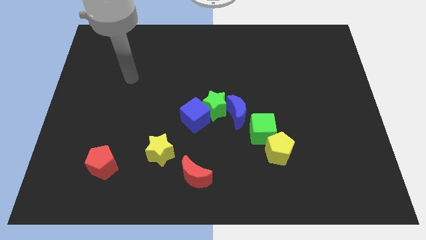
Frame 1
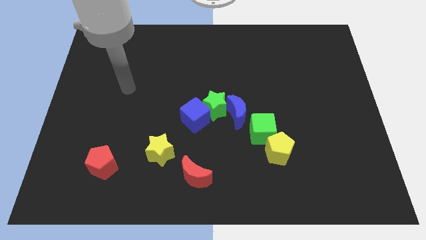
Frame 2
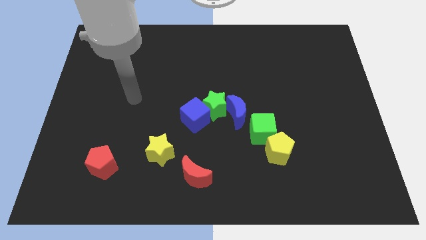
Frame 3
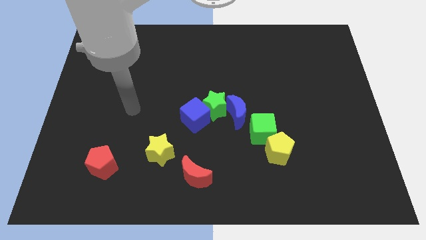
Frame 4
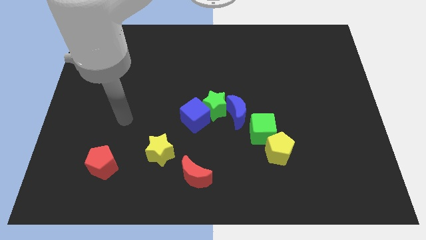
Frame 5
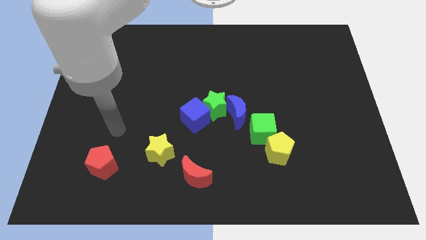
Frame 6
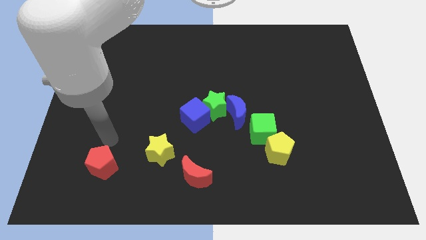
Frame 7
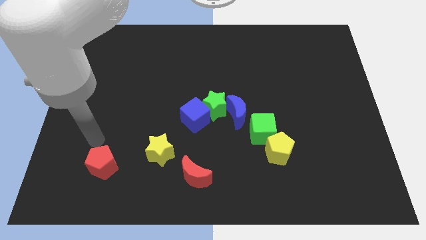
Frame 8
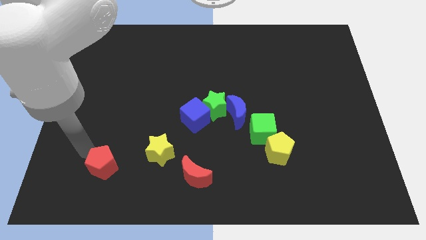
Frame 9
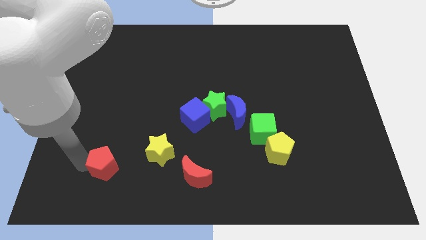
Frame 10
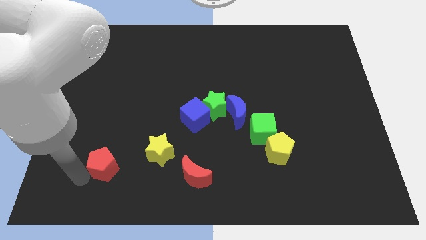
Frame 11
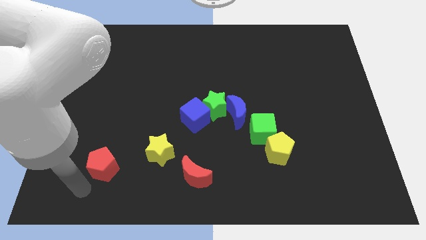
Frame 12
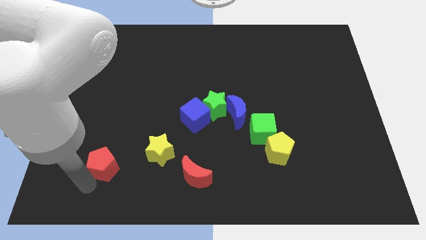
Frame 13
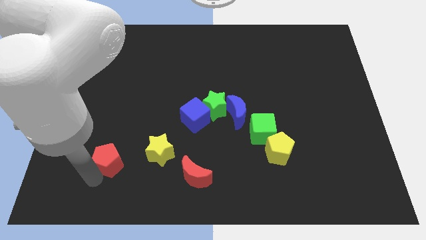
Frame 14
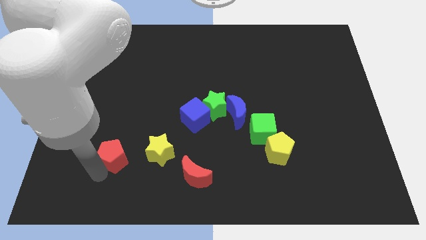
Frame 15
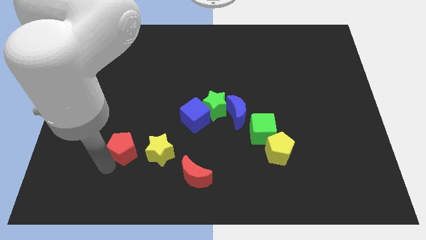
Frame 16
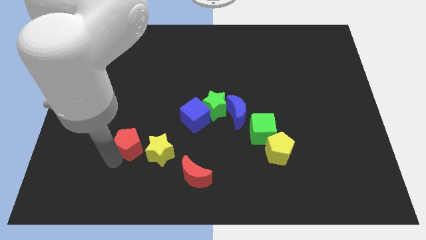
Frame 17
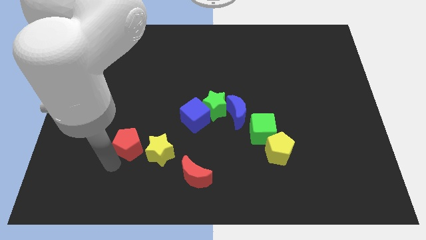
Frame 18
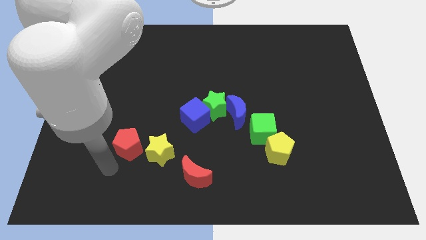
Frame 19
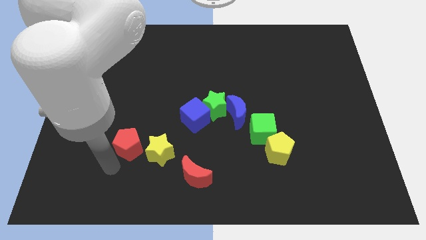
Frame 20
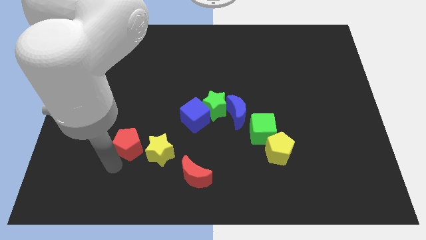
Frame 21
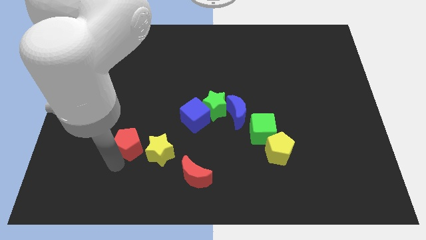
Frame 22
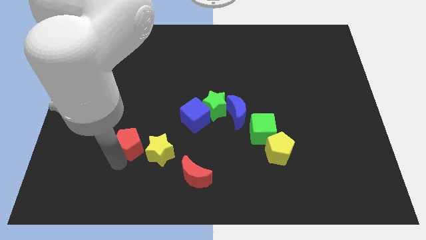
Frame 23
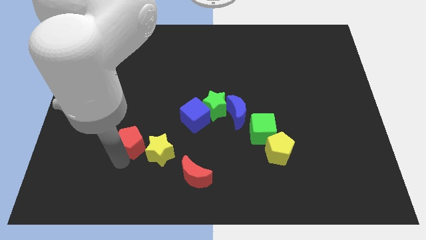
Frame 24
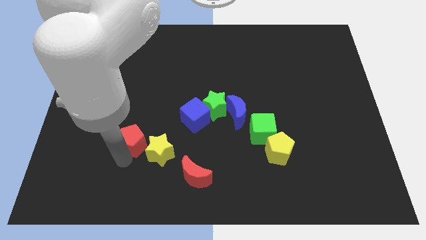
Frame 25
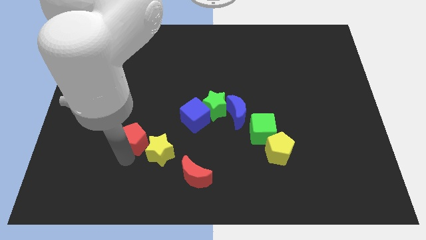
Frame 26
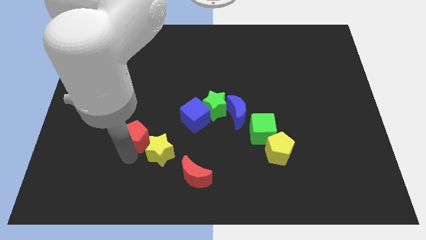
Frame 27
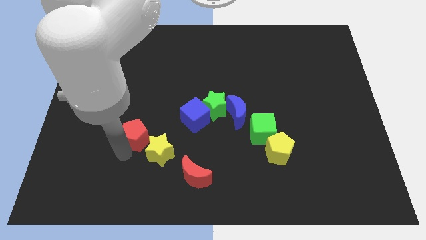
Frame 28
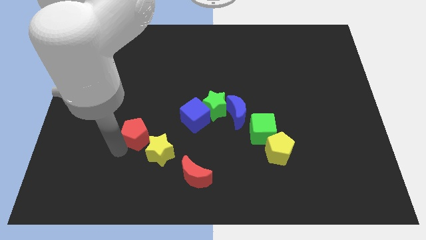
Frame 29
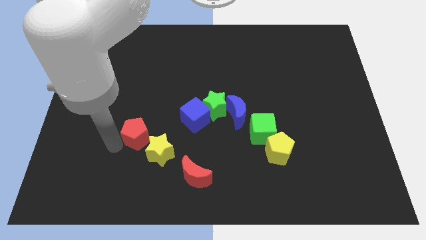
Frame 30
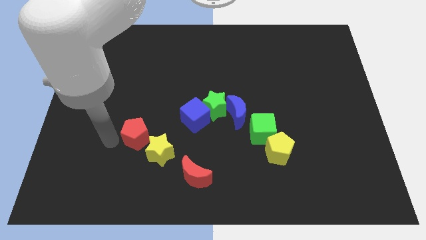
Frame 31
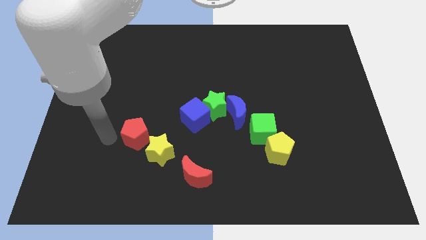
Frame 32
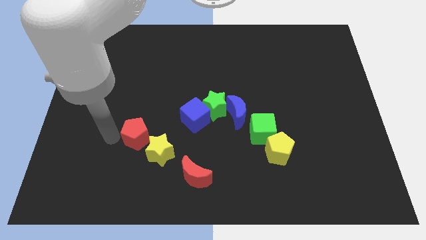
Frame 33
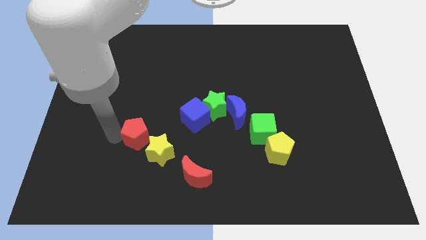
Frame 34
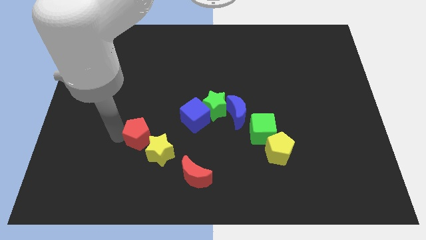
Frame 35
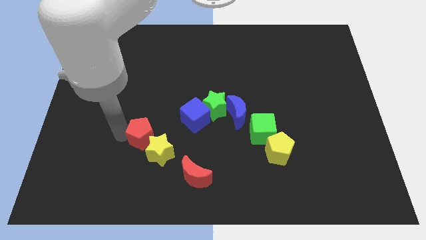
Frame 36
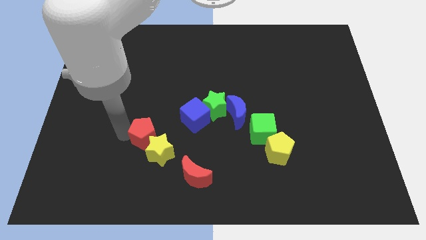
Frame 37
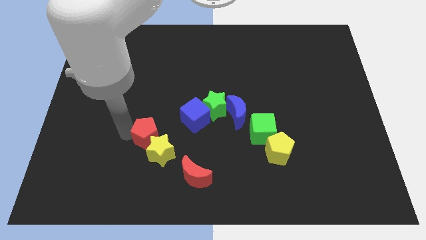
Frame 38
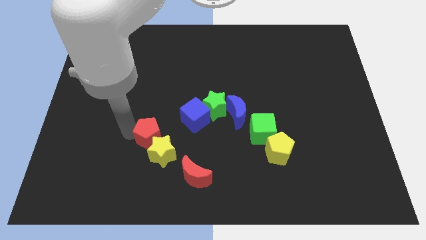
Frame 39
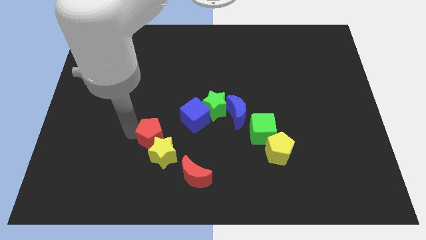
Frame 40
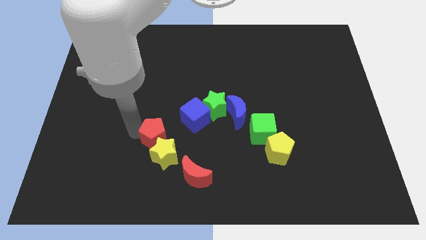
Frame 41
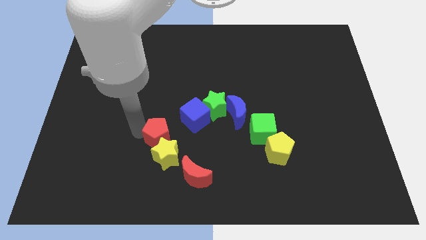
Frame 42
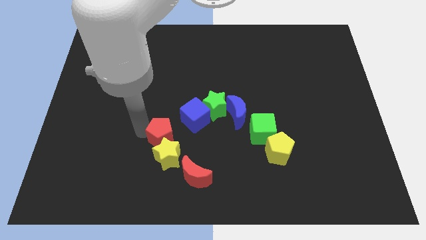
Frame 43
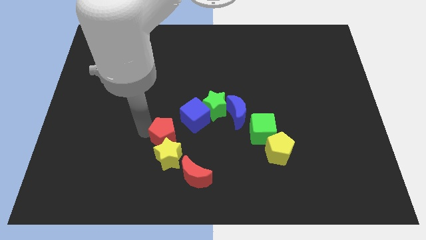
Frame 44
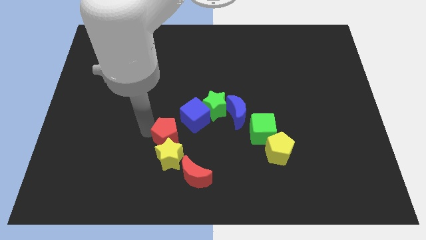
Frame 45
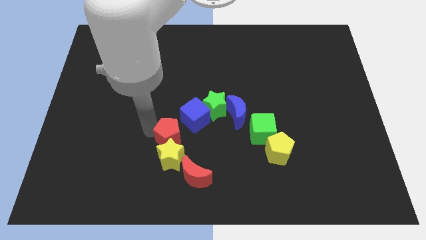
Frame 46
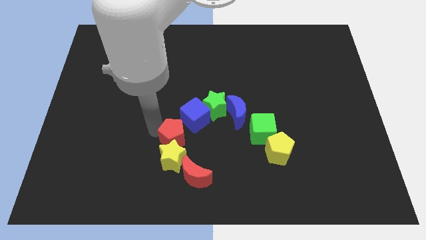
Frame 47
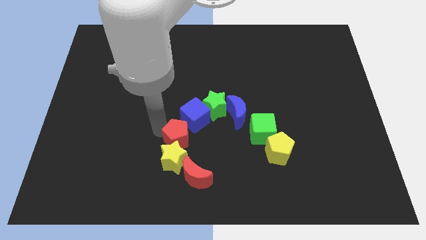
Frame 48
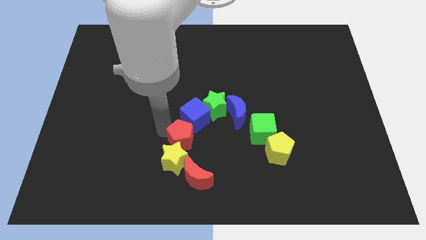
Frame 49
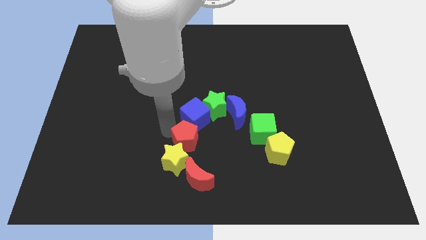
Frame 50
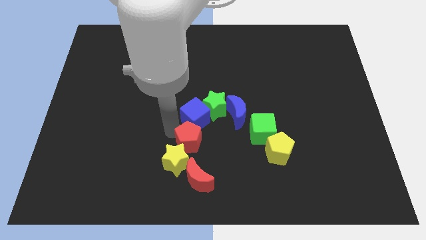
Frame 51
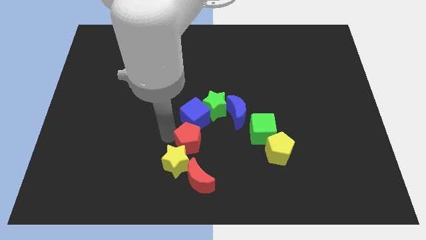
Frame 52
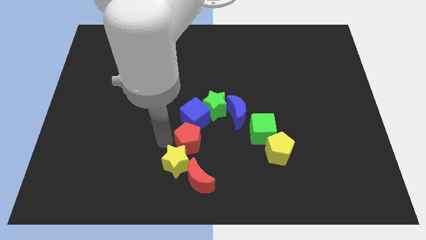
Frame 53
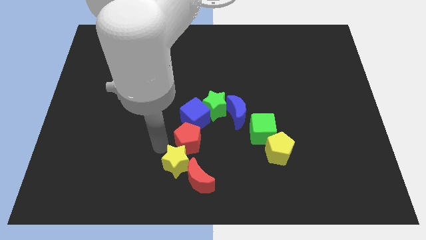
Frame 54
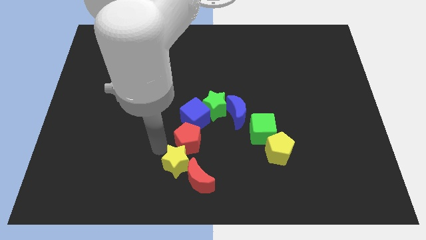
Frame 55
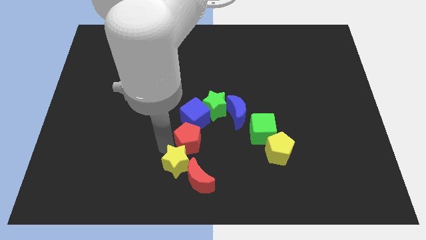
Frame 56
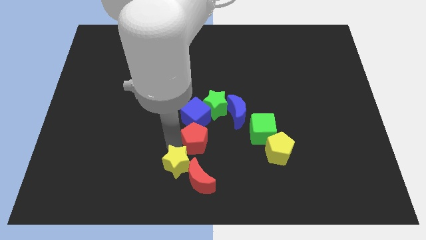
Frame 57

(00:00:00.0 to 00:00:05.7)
move the red pentagon to the bottom right of the blue cube

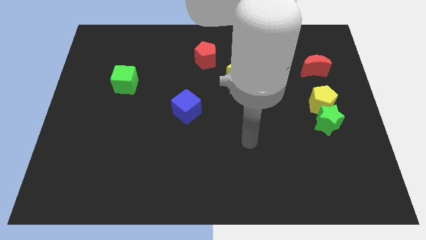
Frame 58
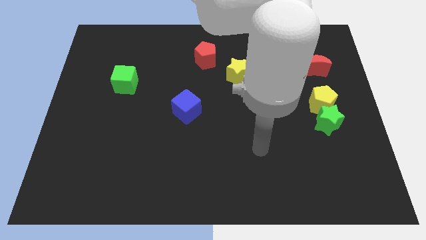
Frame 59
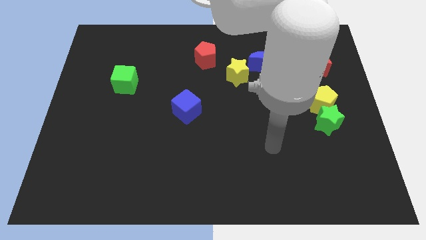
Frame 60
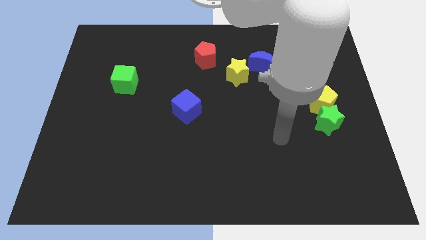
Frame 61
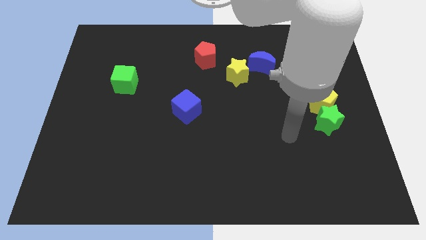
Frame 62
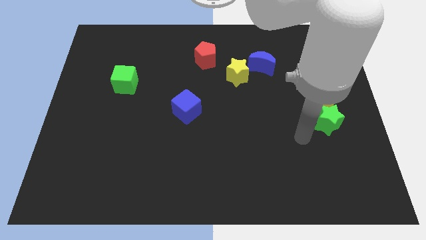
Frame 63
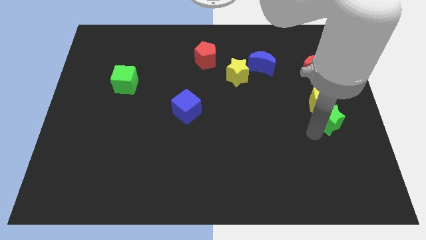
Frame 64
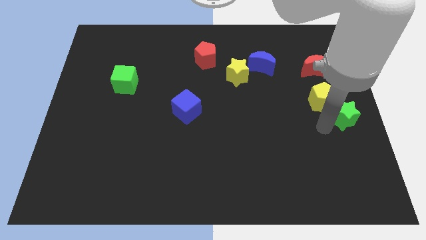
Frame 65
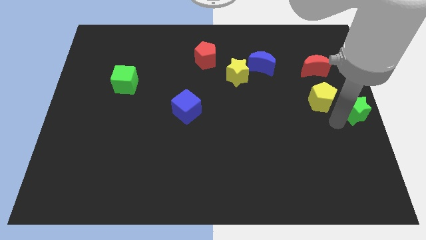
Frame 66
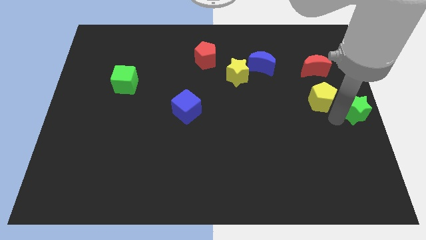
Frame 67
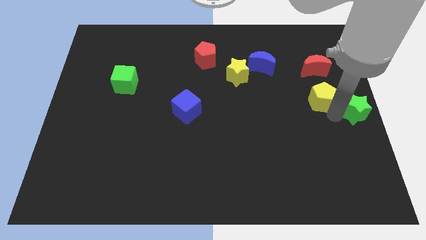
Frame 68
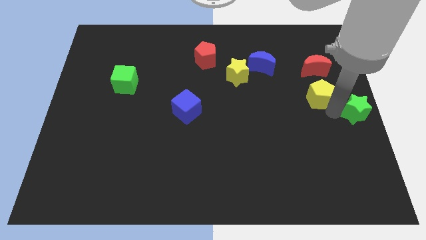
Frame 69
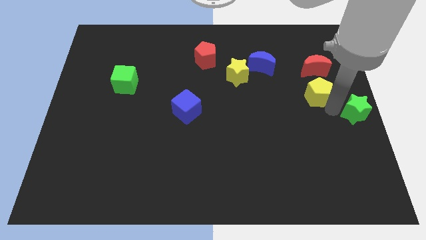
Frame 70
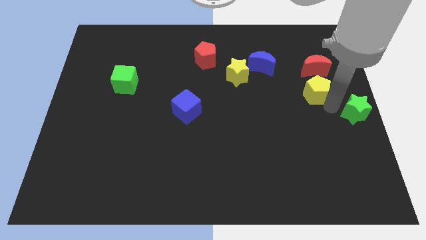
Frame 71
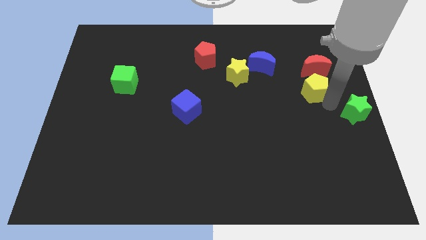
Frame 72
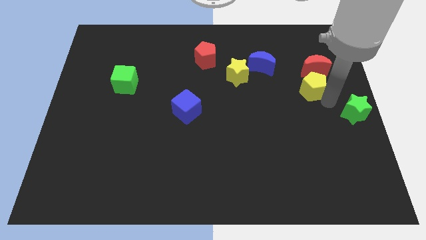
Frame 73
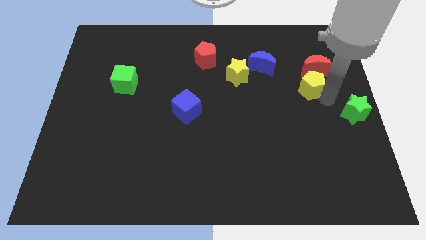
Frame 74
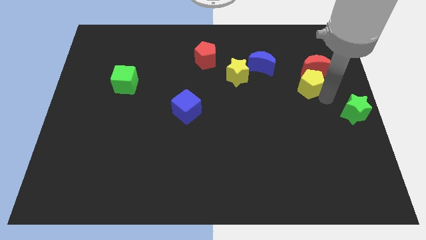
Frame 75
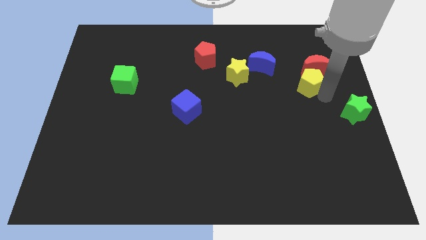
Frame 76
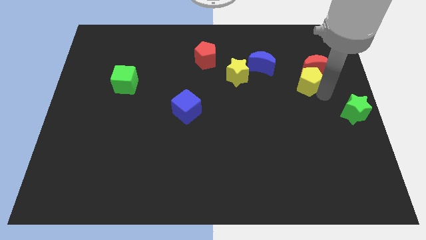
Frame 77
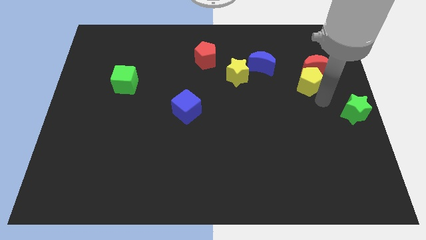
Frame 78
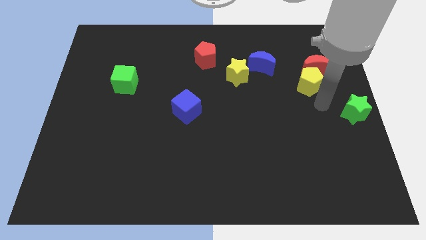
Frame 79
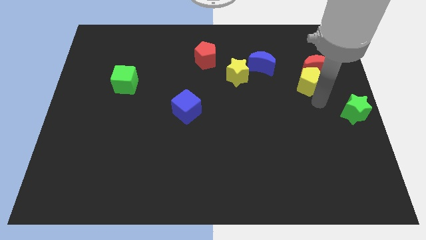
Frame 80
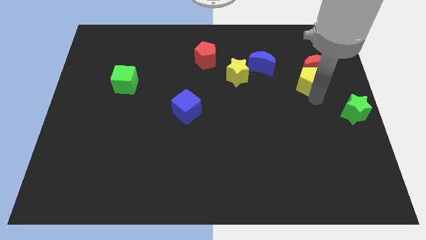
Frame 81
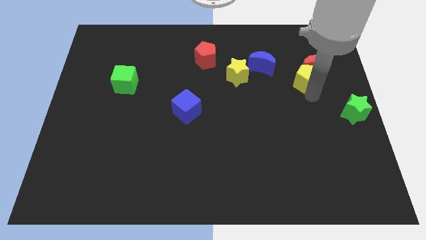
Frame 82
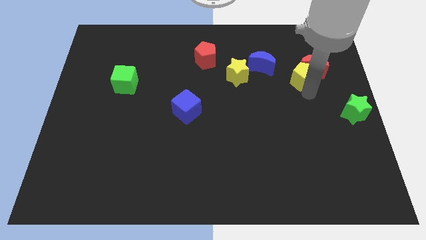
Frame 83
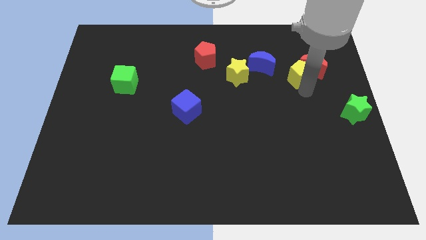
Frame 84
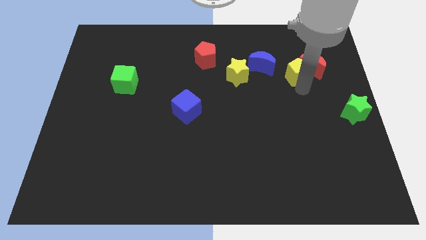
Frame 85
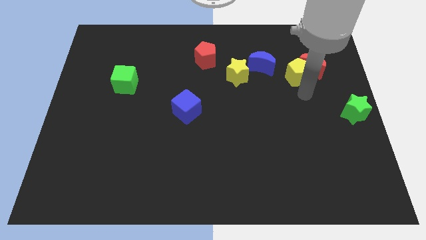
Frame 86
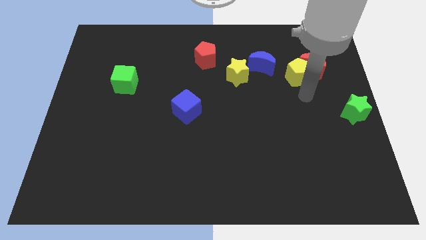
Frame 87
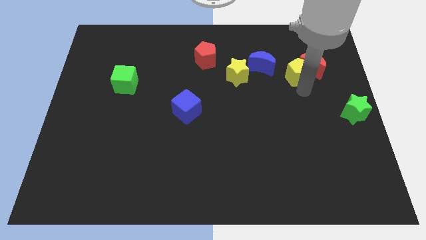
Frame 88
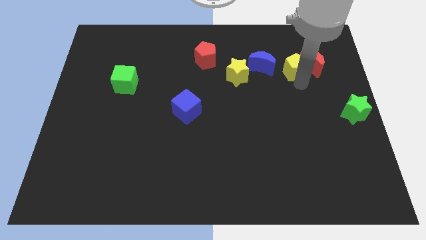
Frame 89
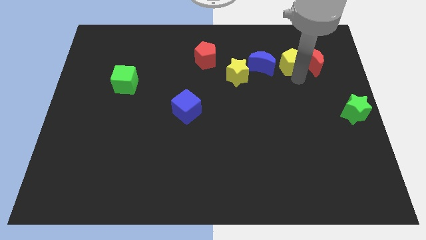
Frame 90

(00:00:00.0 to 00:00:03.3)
slide the yellow pentagon diagonally up and to the left of the red moon
